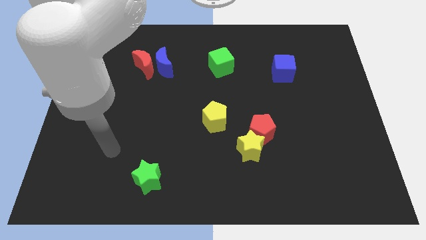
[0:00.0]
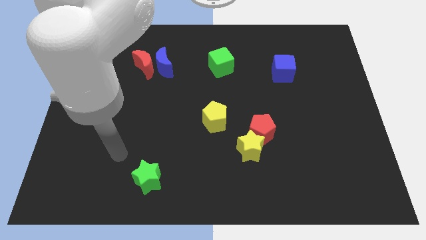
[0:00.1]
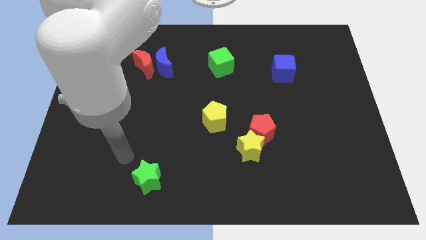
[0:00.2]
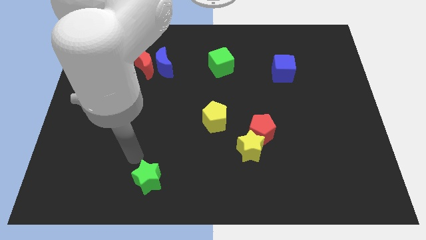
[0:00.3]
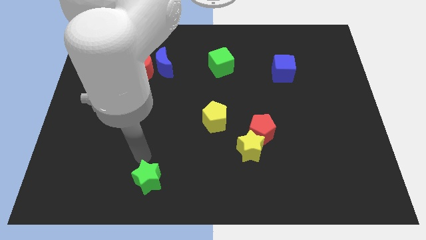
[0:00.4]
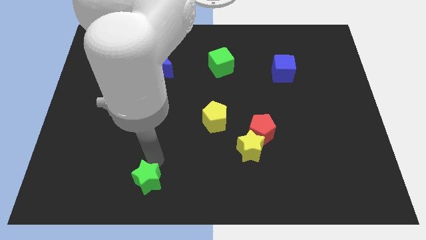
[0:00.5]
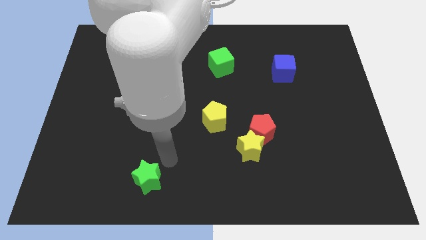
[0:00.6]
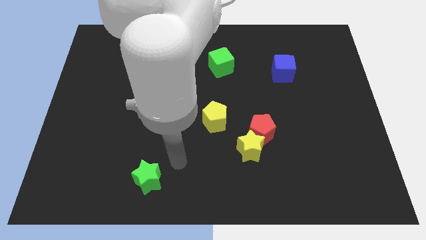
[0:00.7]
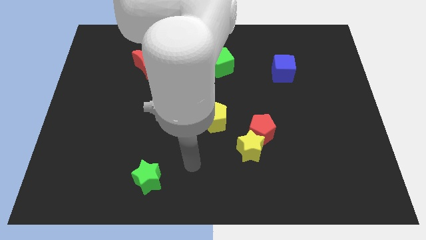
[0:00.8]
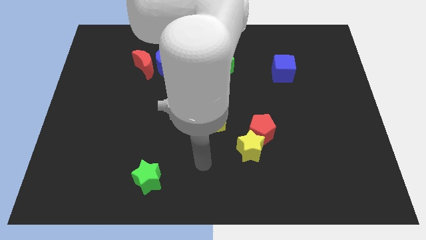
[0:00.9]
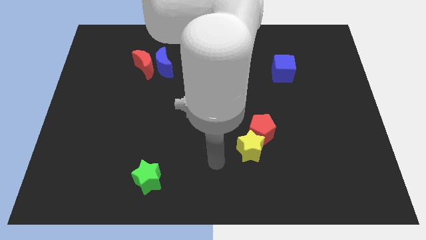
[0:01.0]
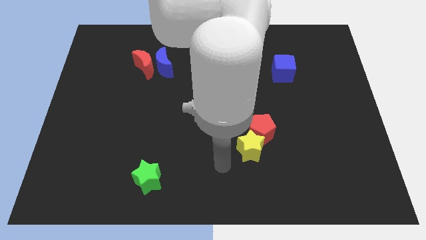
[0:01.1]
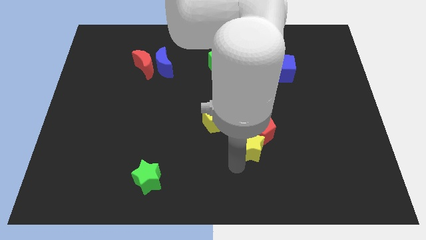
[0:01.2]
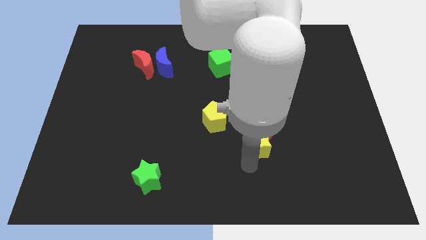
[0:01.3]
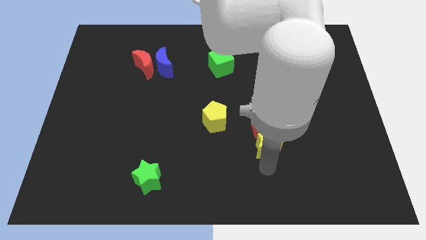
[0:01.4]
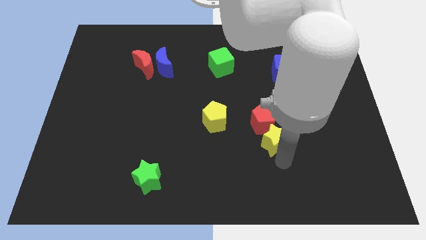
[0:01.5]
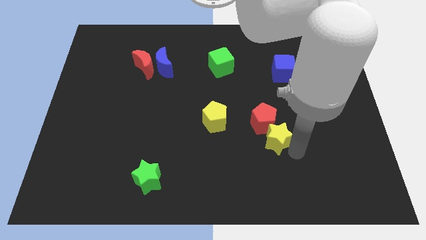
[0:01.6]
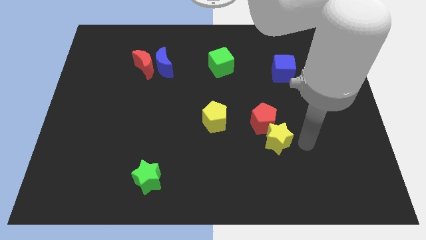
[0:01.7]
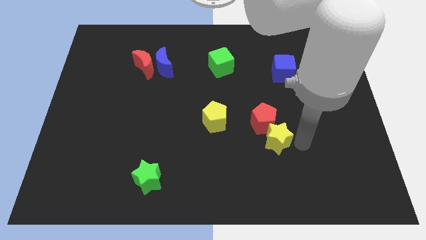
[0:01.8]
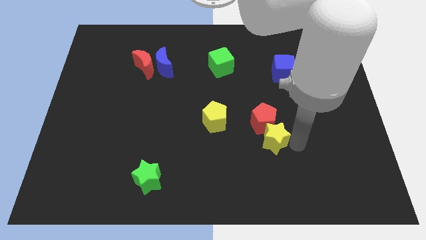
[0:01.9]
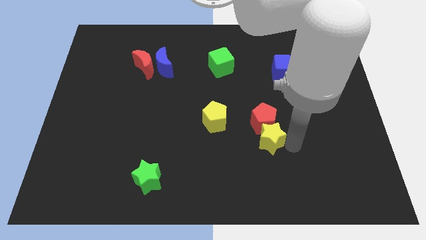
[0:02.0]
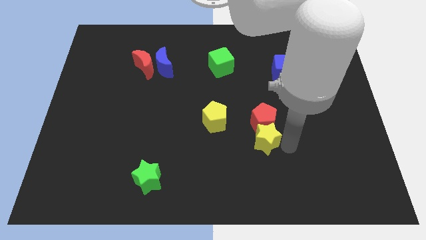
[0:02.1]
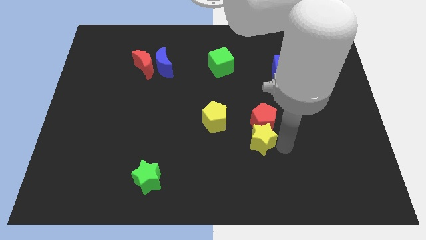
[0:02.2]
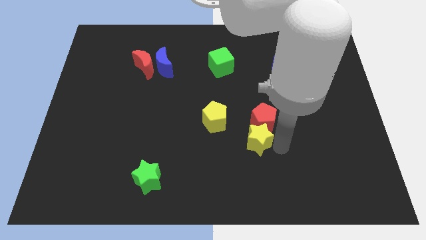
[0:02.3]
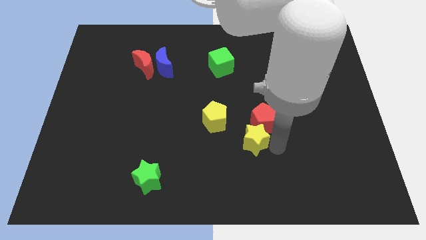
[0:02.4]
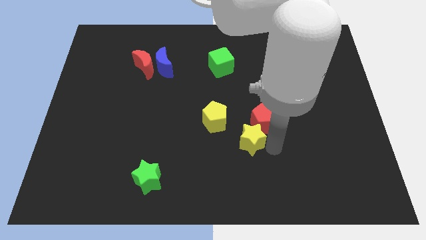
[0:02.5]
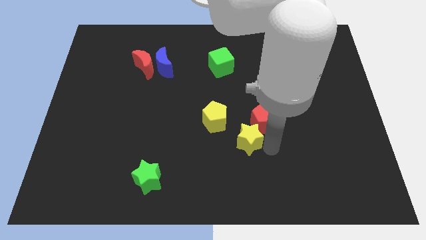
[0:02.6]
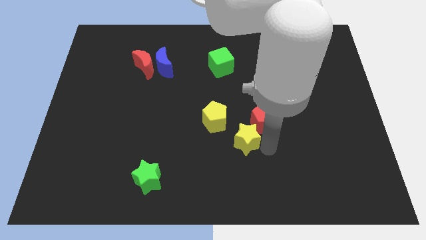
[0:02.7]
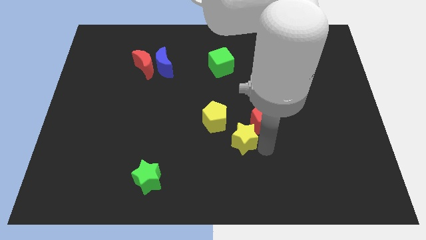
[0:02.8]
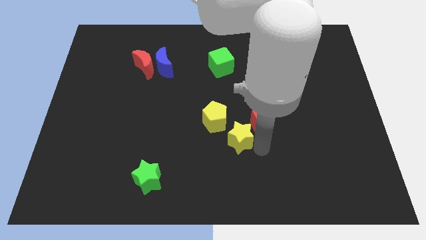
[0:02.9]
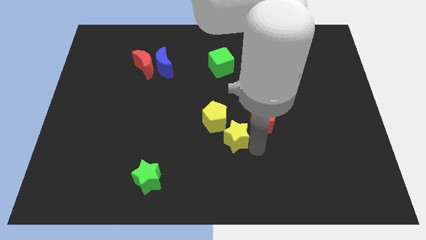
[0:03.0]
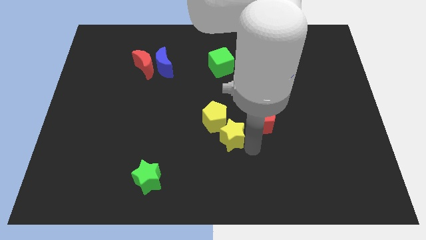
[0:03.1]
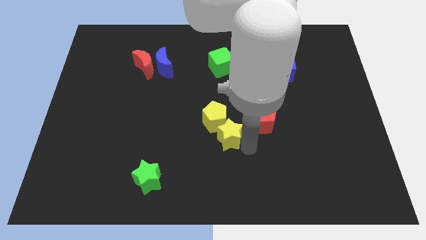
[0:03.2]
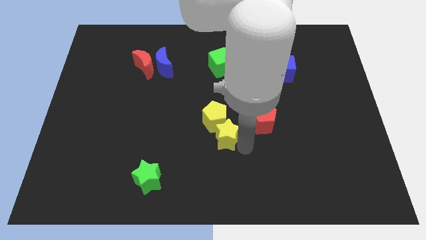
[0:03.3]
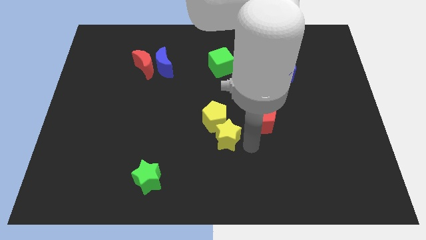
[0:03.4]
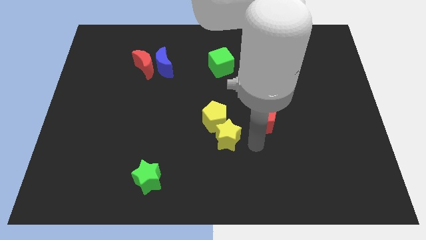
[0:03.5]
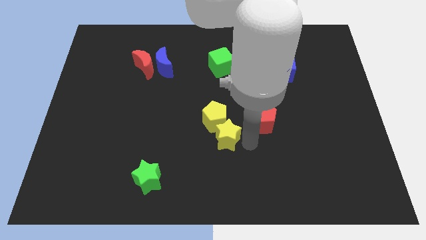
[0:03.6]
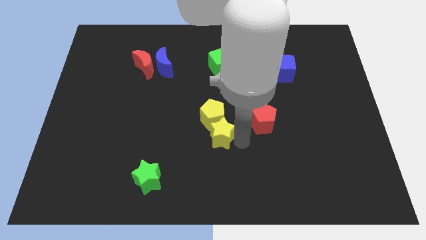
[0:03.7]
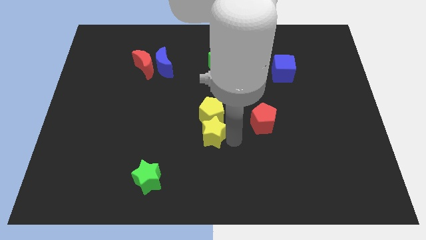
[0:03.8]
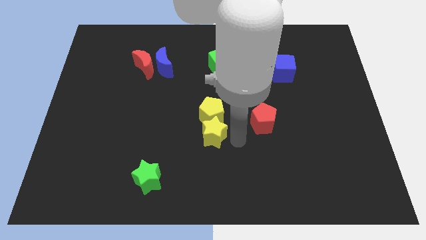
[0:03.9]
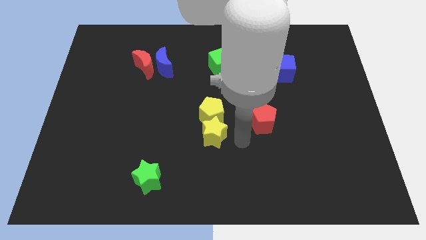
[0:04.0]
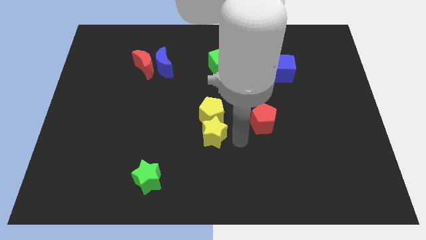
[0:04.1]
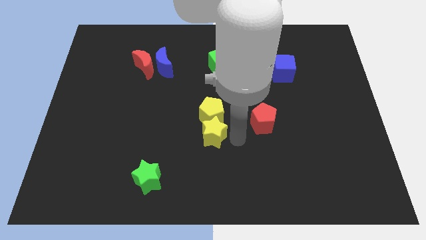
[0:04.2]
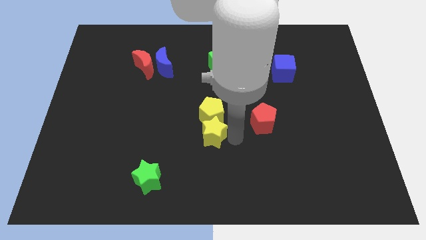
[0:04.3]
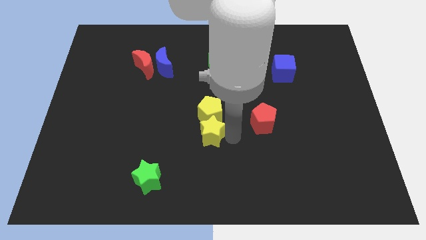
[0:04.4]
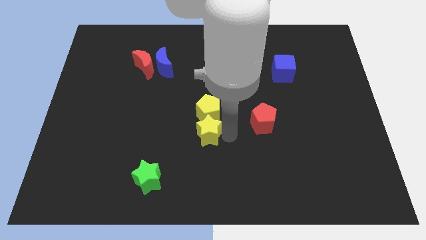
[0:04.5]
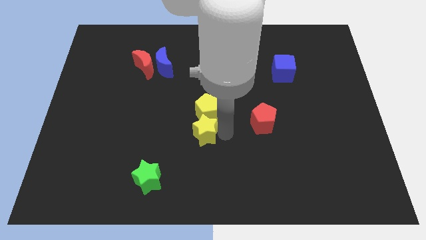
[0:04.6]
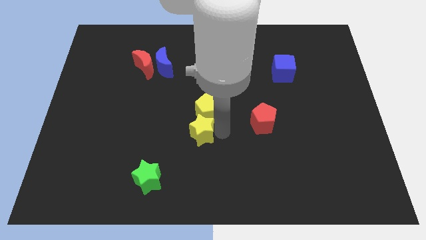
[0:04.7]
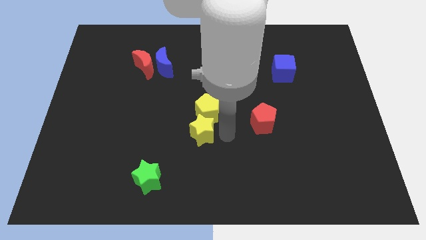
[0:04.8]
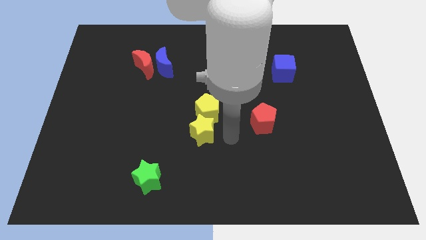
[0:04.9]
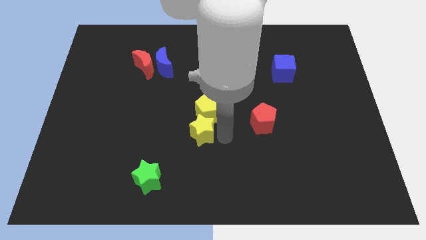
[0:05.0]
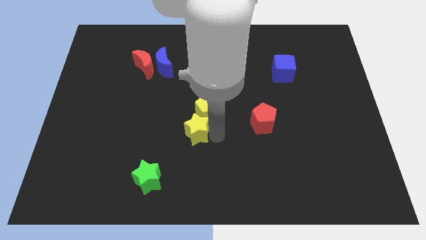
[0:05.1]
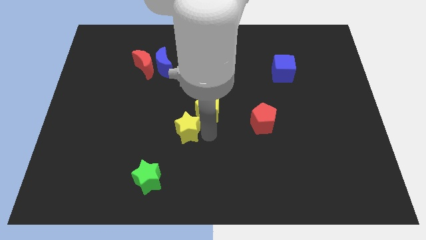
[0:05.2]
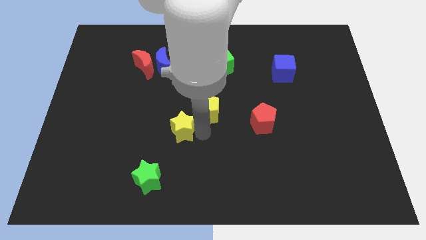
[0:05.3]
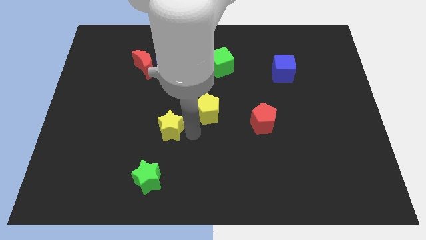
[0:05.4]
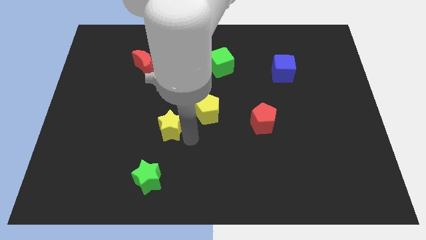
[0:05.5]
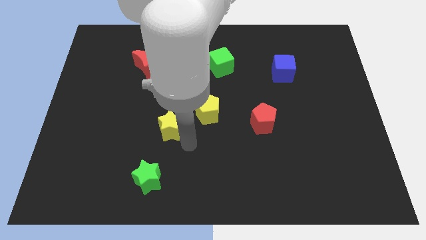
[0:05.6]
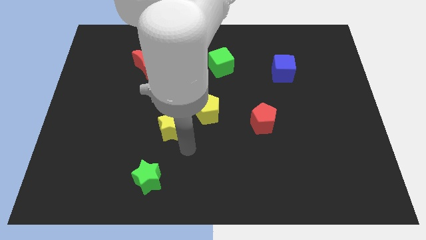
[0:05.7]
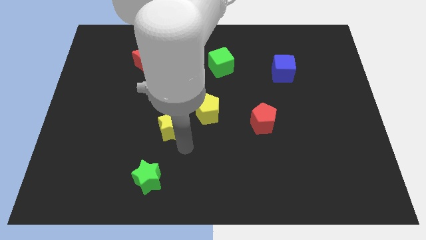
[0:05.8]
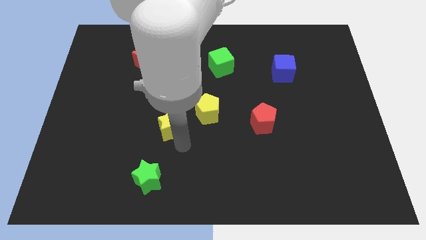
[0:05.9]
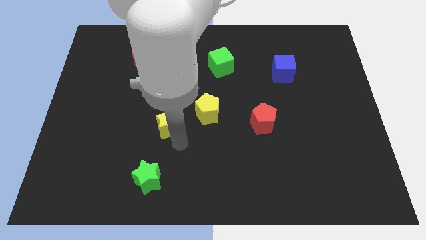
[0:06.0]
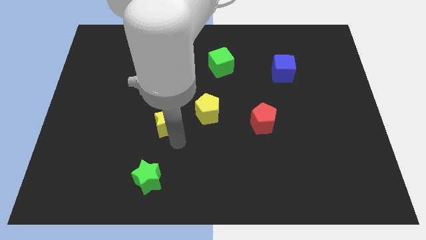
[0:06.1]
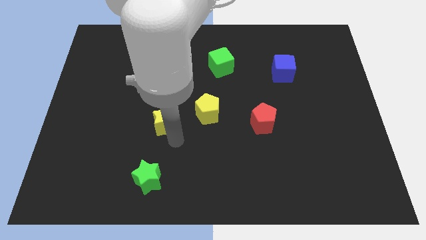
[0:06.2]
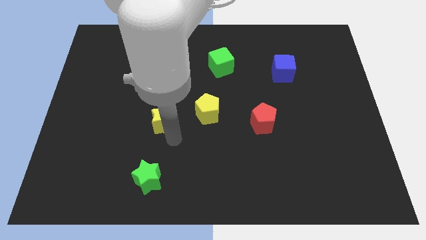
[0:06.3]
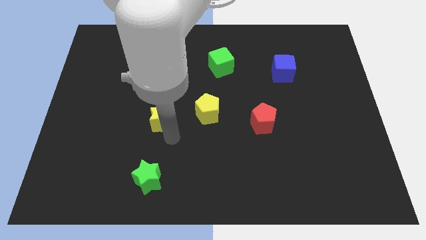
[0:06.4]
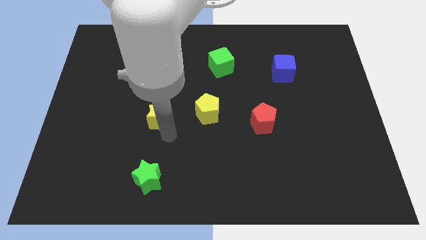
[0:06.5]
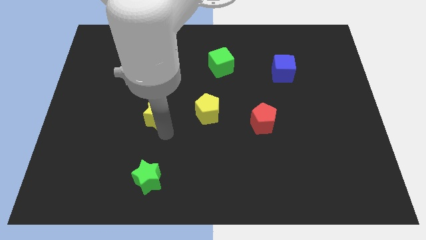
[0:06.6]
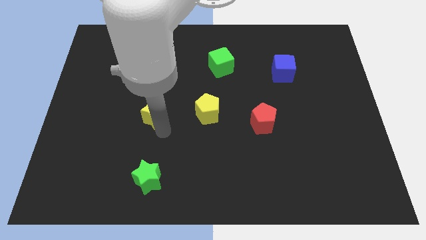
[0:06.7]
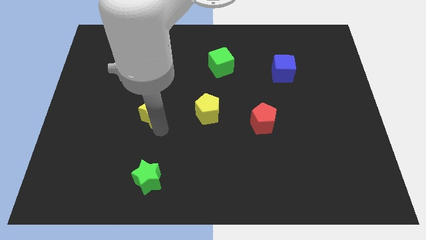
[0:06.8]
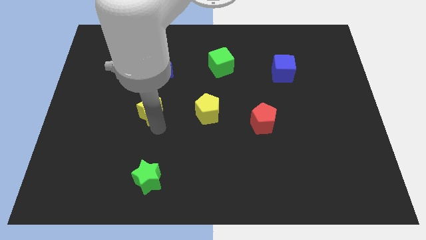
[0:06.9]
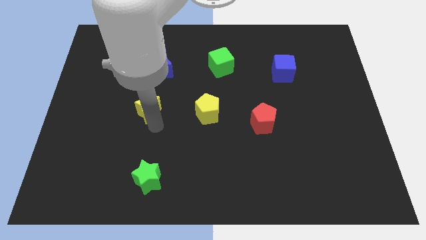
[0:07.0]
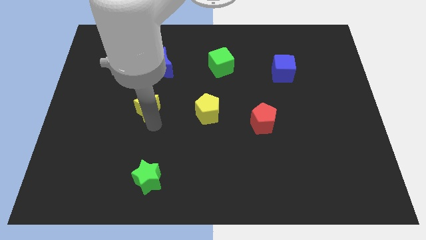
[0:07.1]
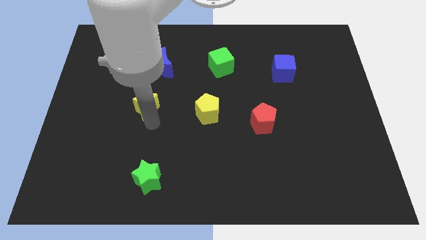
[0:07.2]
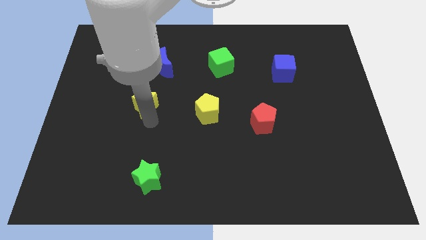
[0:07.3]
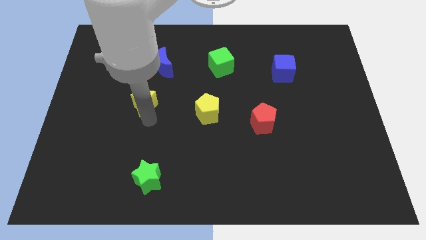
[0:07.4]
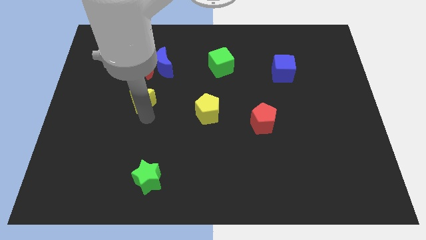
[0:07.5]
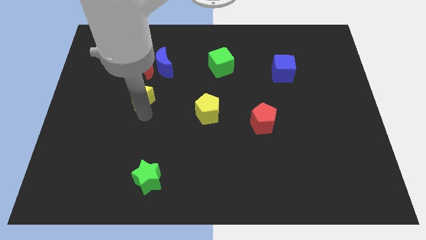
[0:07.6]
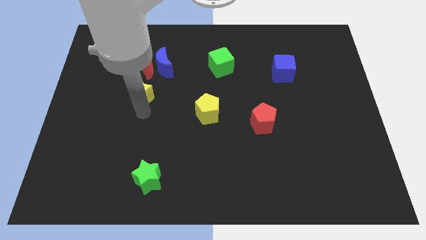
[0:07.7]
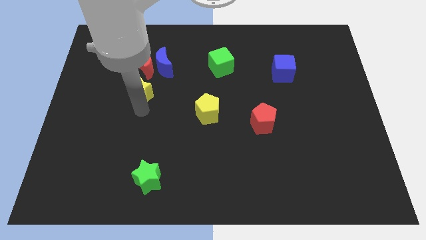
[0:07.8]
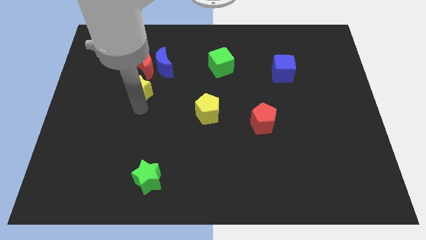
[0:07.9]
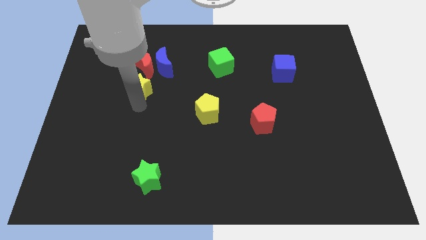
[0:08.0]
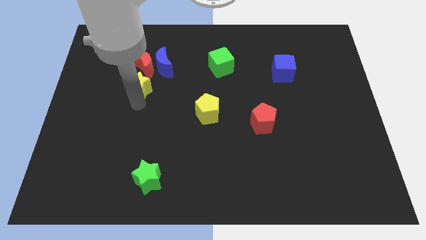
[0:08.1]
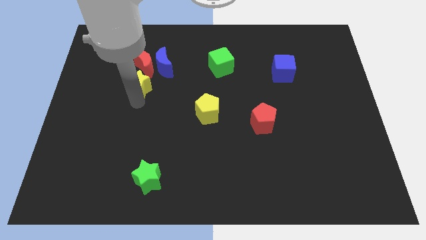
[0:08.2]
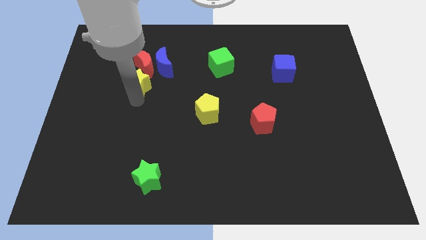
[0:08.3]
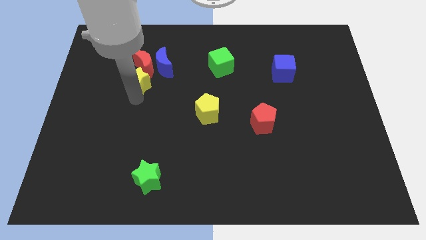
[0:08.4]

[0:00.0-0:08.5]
push the yellow star towards the red moon
